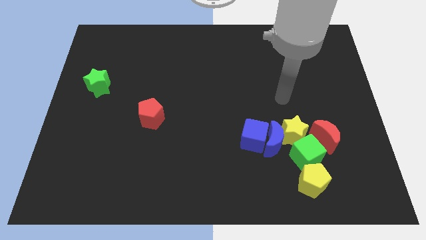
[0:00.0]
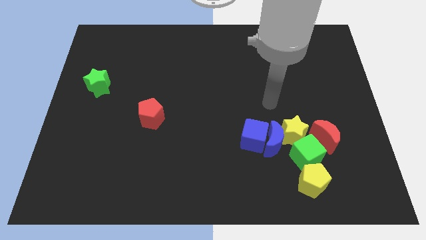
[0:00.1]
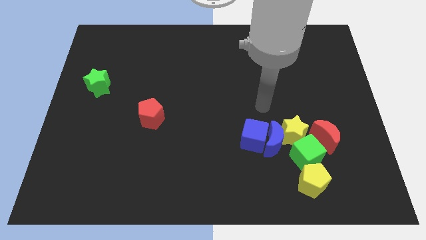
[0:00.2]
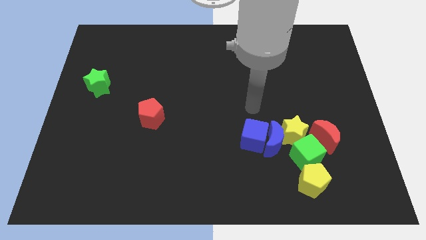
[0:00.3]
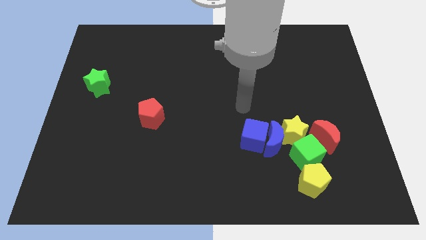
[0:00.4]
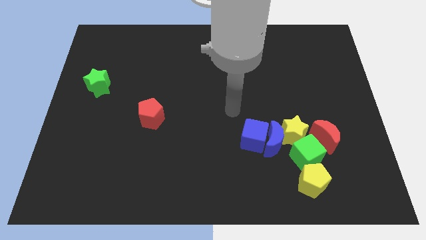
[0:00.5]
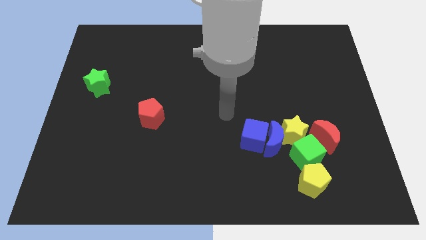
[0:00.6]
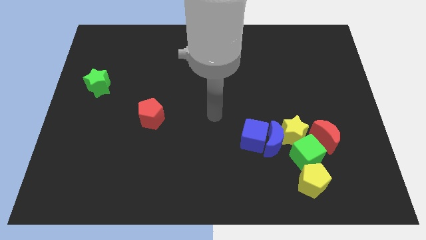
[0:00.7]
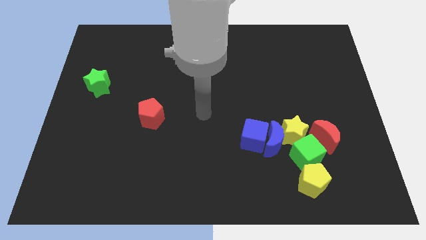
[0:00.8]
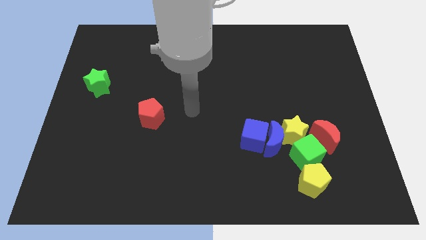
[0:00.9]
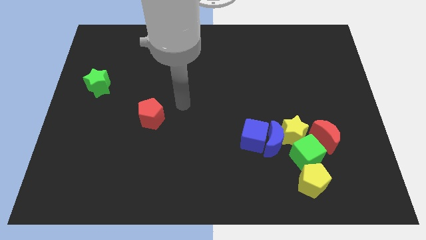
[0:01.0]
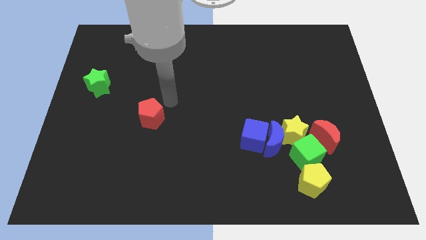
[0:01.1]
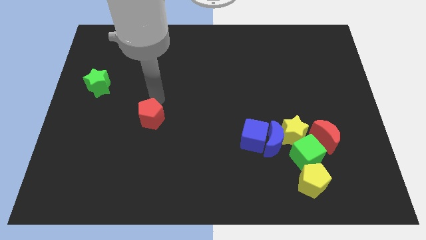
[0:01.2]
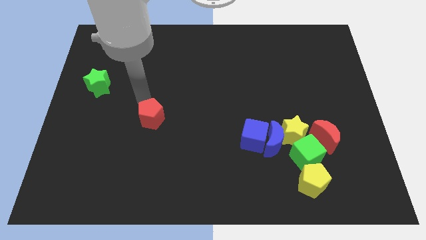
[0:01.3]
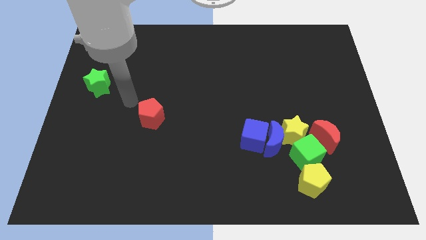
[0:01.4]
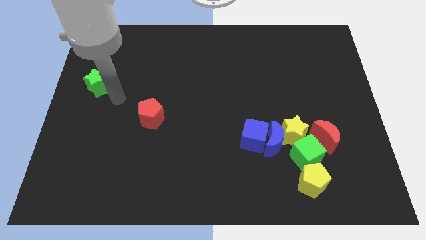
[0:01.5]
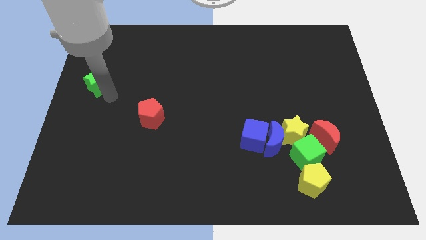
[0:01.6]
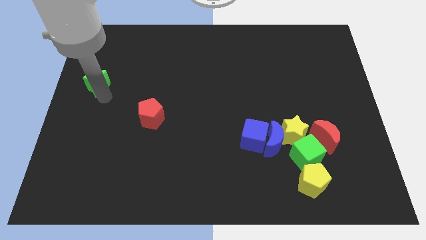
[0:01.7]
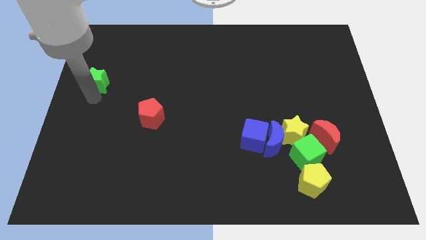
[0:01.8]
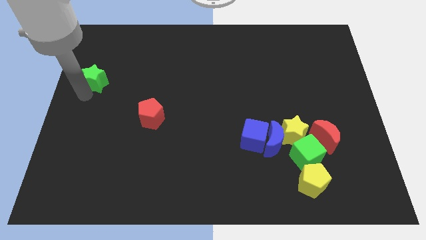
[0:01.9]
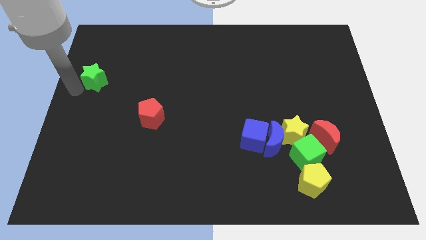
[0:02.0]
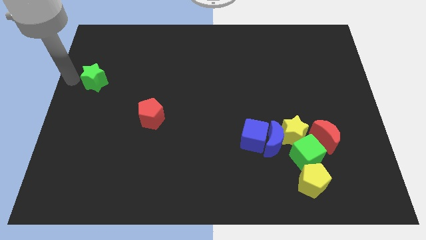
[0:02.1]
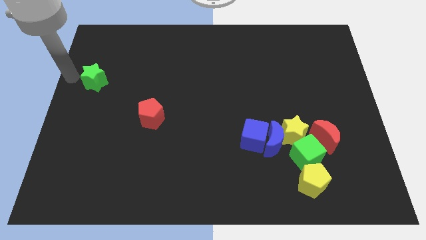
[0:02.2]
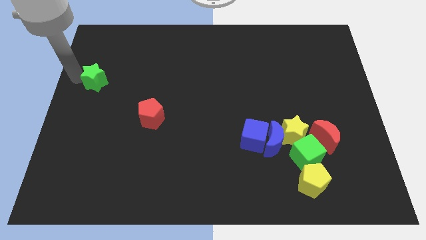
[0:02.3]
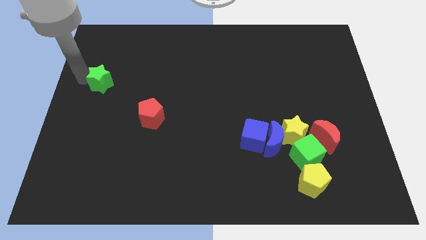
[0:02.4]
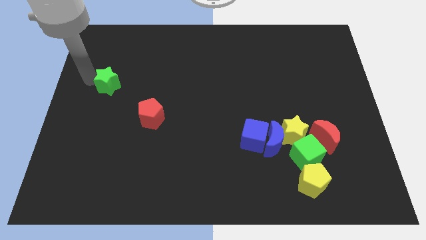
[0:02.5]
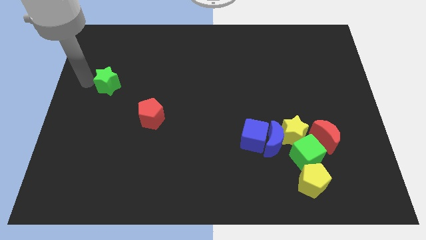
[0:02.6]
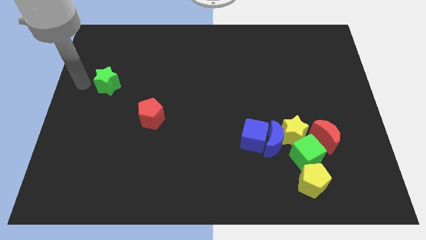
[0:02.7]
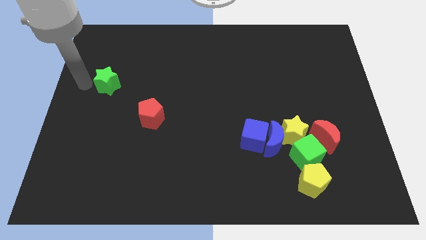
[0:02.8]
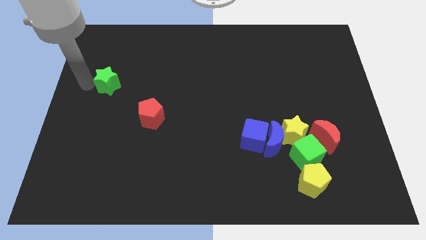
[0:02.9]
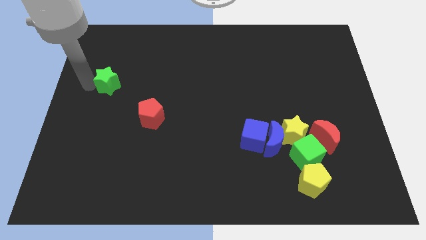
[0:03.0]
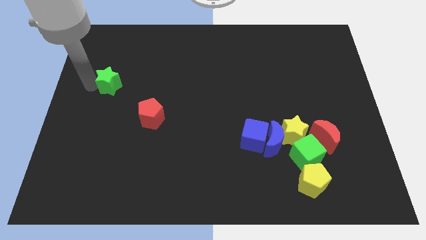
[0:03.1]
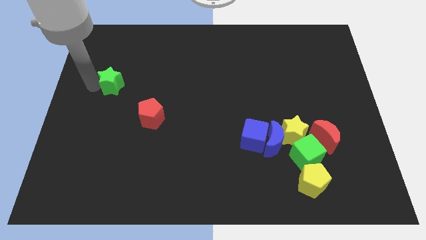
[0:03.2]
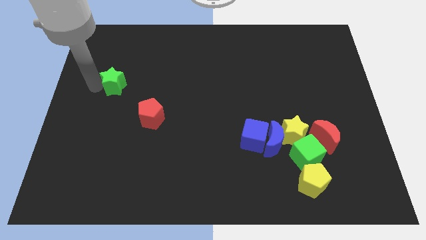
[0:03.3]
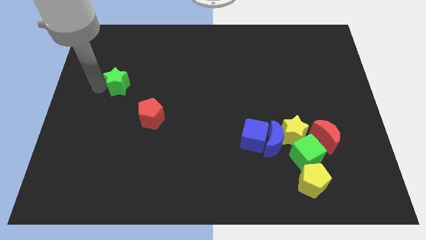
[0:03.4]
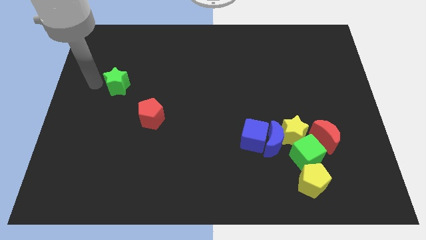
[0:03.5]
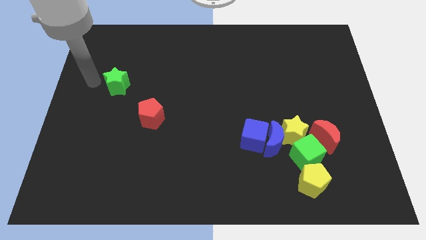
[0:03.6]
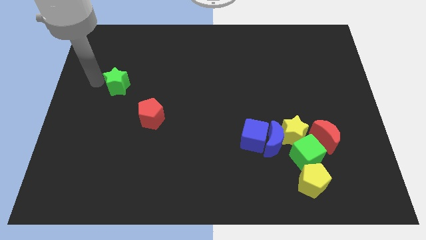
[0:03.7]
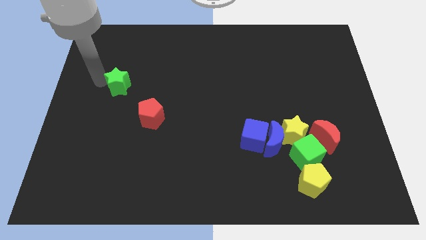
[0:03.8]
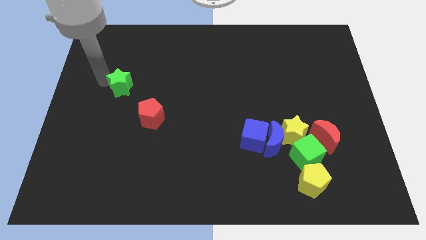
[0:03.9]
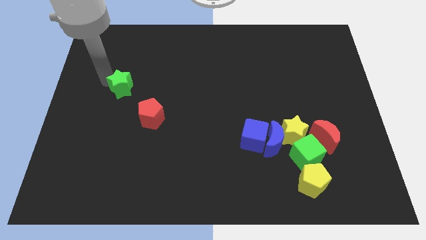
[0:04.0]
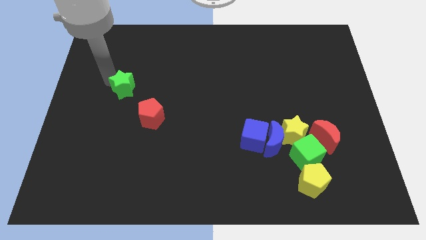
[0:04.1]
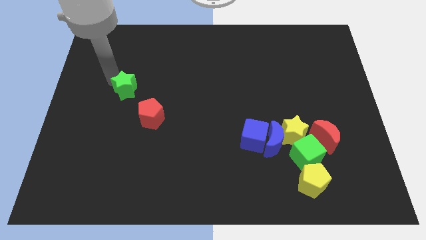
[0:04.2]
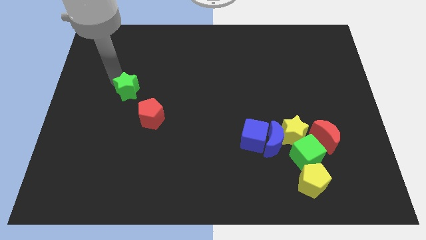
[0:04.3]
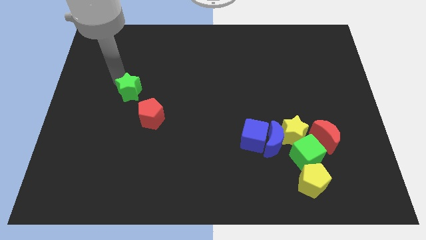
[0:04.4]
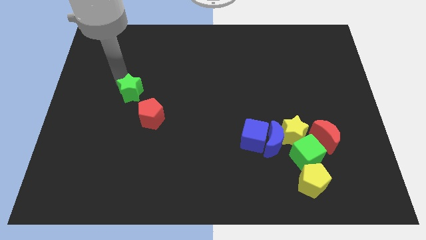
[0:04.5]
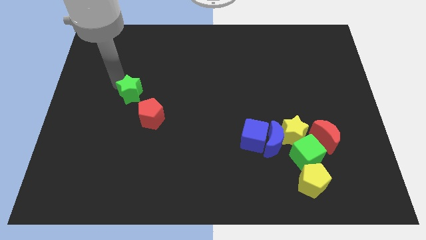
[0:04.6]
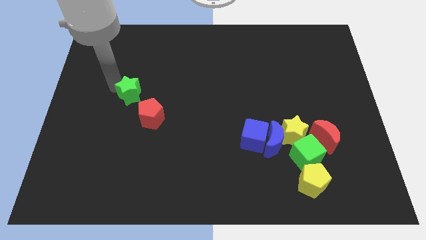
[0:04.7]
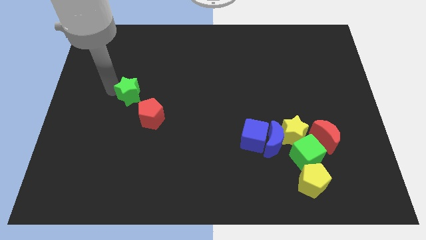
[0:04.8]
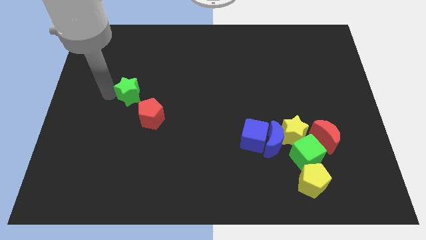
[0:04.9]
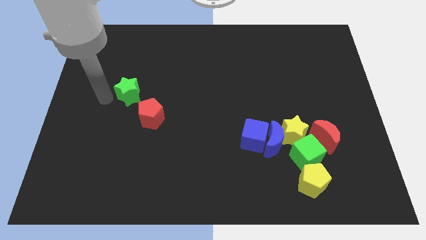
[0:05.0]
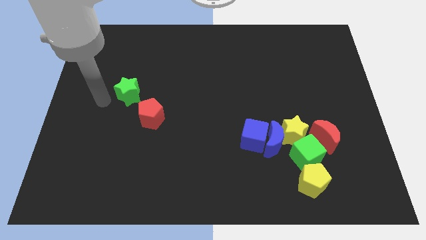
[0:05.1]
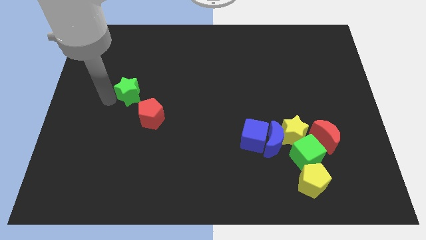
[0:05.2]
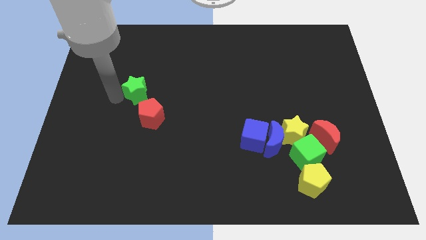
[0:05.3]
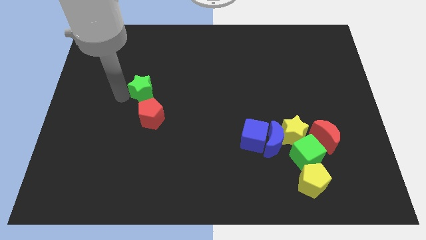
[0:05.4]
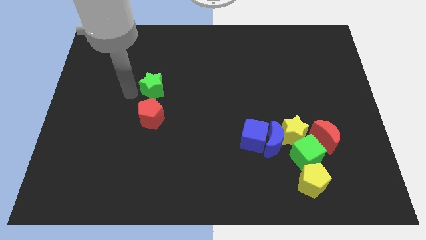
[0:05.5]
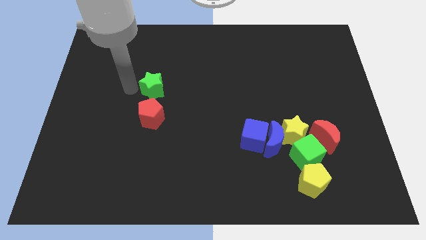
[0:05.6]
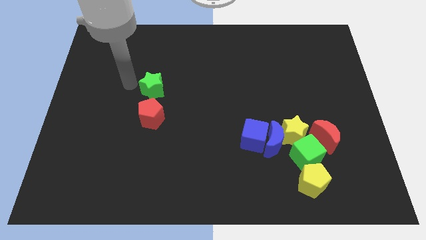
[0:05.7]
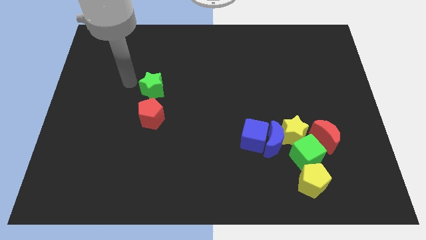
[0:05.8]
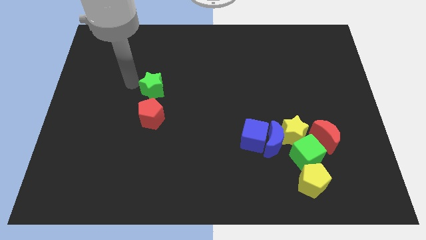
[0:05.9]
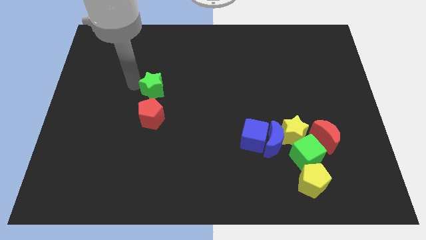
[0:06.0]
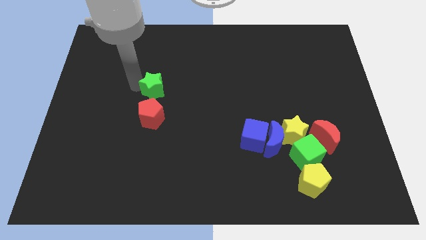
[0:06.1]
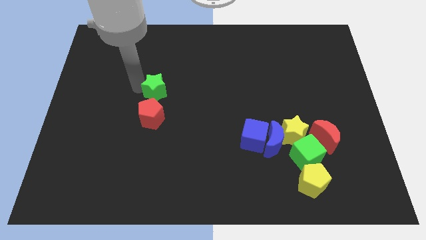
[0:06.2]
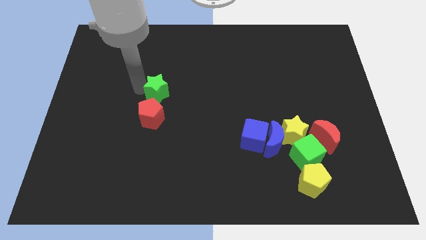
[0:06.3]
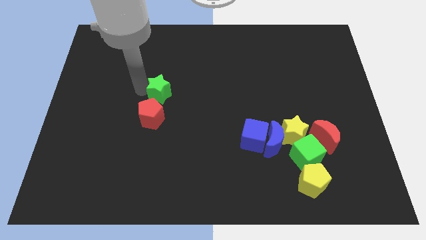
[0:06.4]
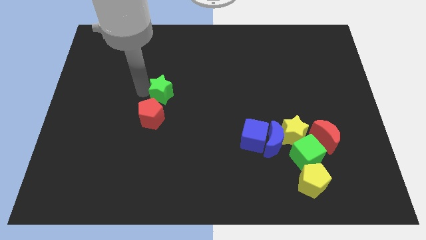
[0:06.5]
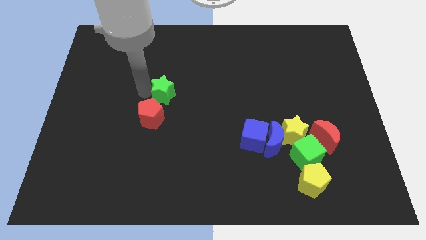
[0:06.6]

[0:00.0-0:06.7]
move the green star to the middle
